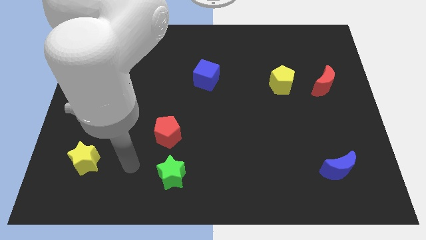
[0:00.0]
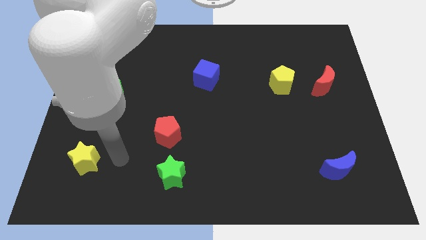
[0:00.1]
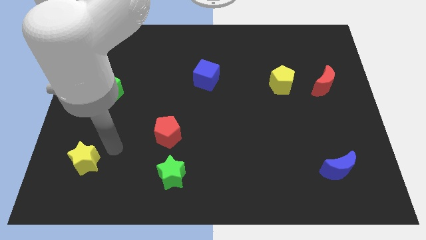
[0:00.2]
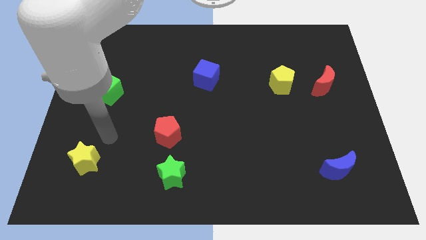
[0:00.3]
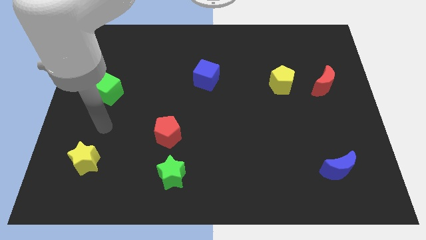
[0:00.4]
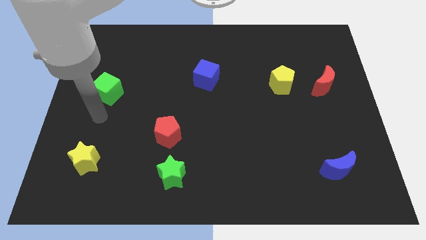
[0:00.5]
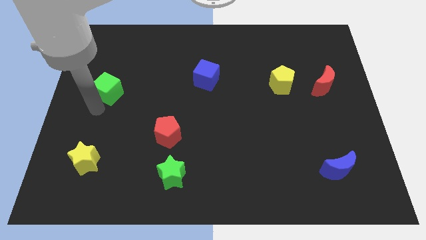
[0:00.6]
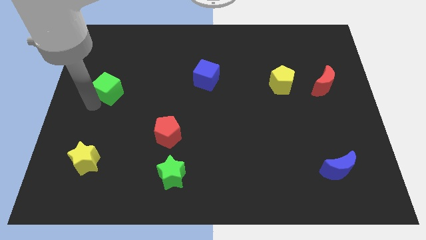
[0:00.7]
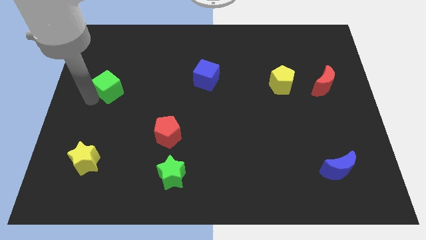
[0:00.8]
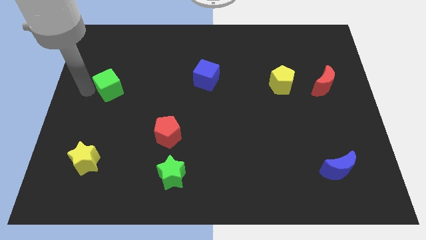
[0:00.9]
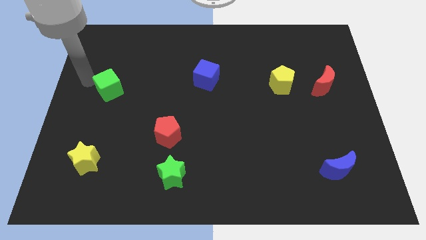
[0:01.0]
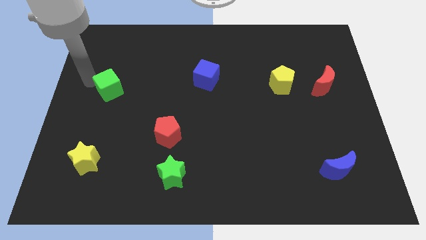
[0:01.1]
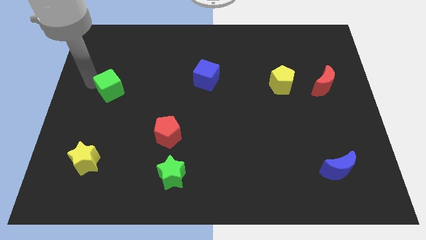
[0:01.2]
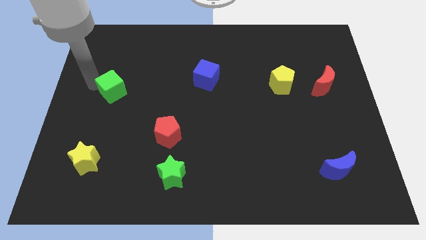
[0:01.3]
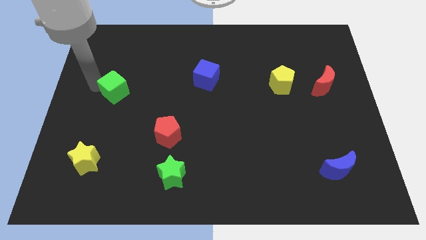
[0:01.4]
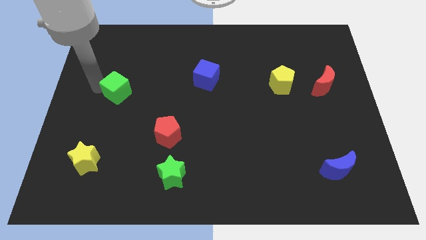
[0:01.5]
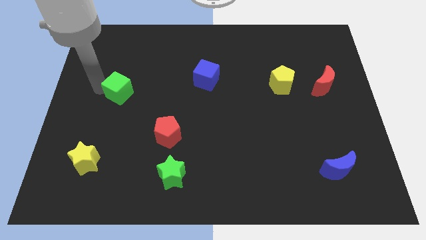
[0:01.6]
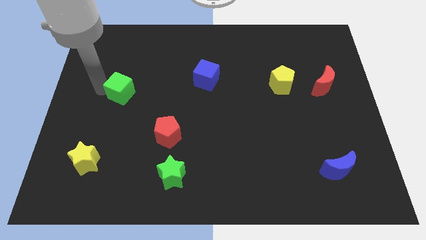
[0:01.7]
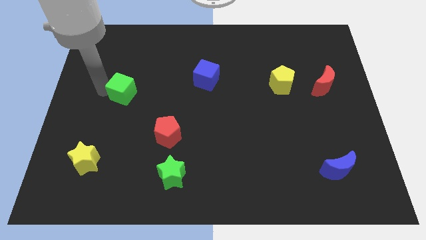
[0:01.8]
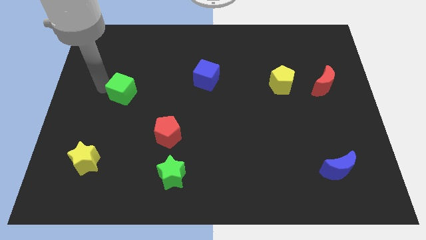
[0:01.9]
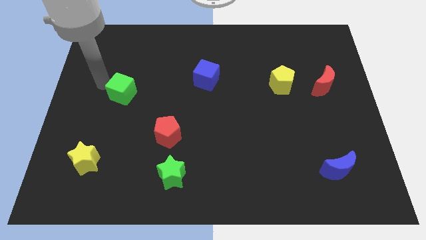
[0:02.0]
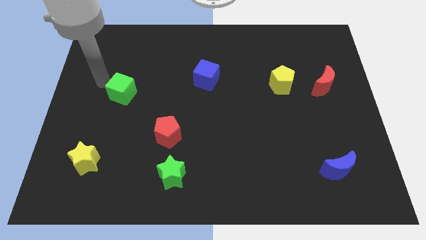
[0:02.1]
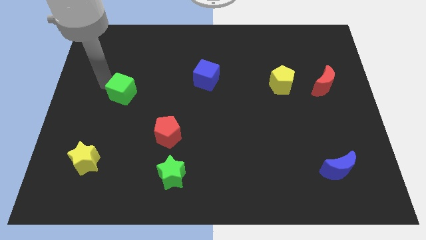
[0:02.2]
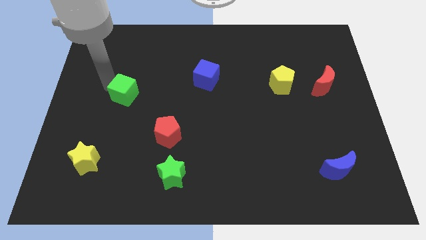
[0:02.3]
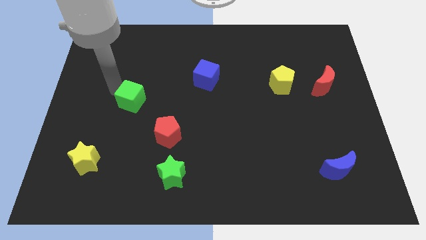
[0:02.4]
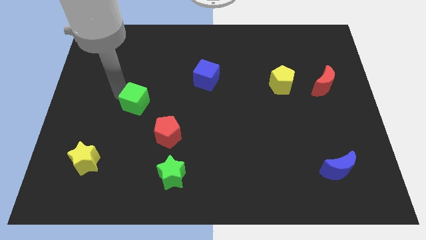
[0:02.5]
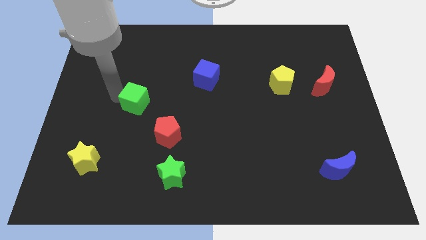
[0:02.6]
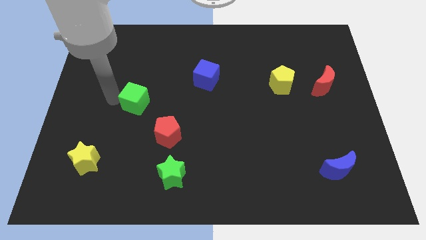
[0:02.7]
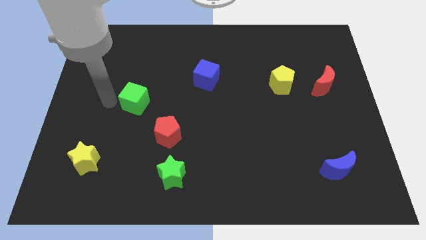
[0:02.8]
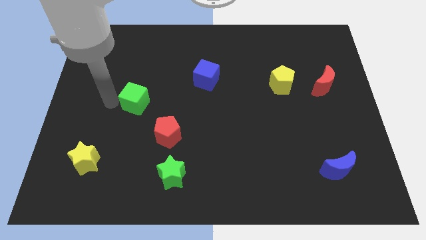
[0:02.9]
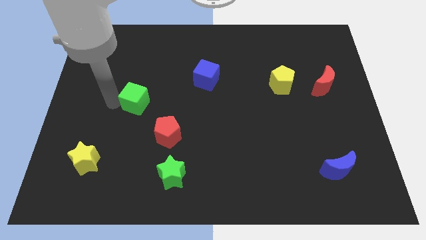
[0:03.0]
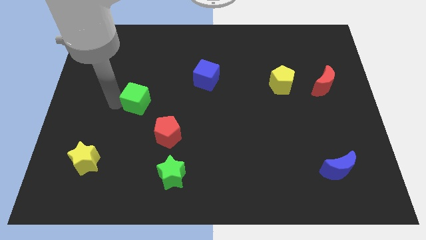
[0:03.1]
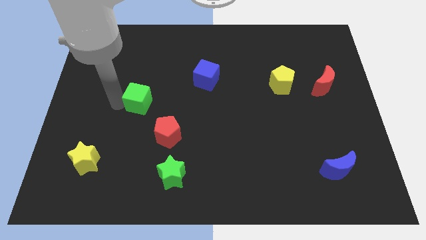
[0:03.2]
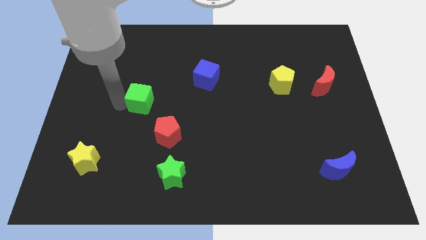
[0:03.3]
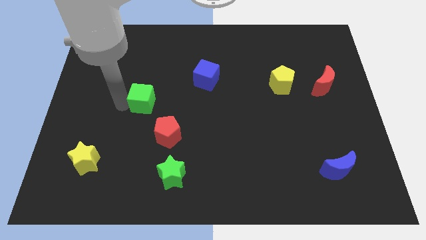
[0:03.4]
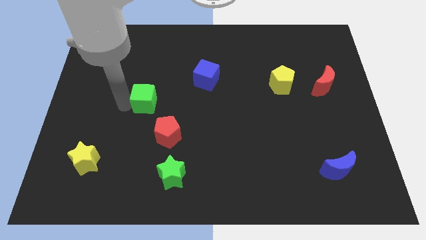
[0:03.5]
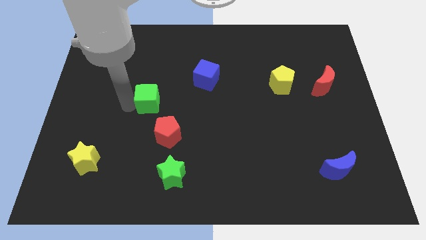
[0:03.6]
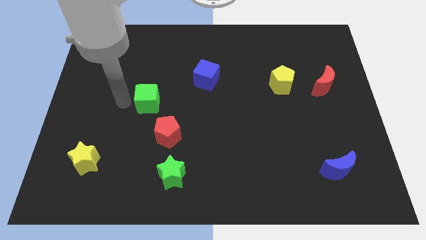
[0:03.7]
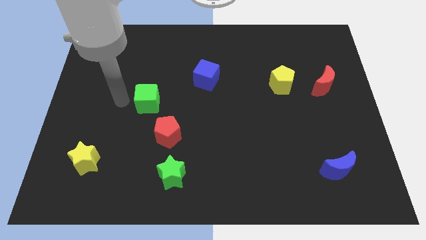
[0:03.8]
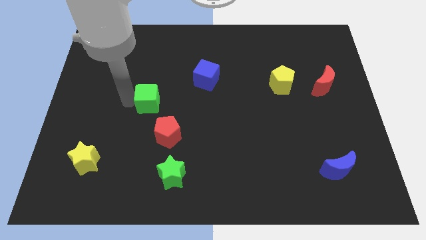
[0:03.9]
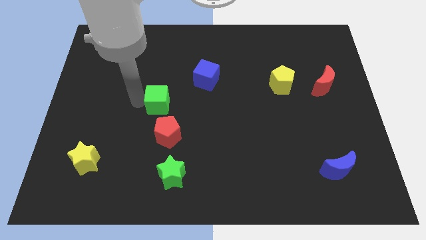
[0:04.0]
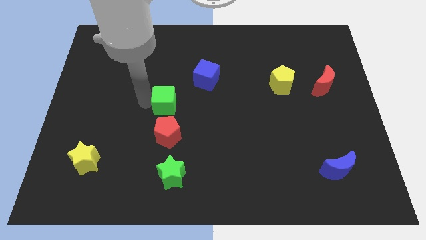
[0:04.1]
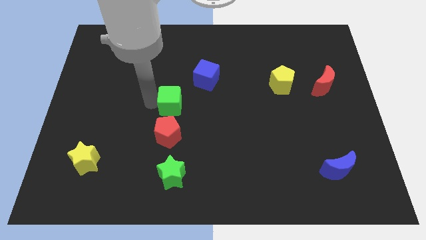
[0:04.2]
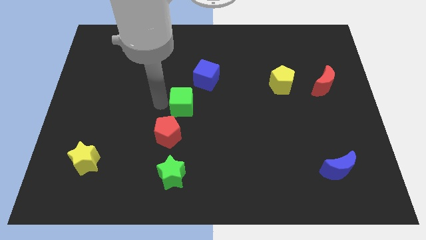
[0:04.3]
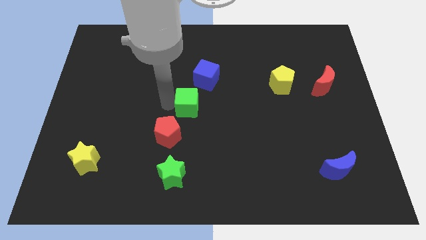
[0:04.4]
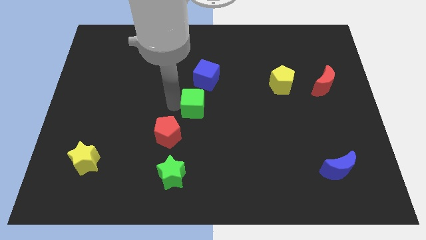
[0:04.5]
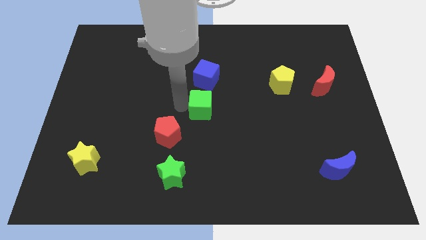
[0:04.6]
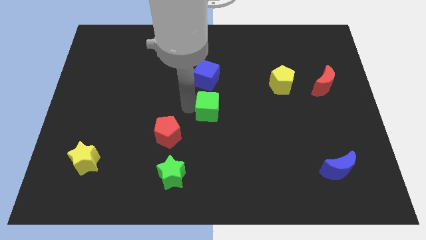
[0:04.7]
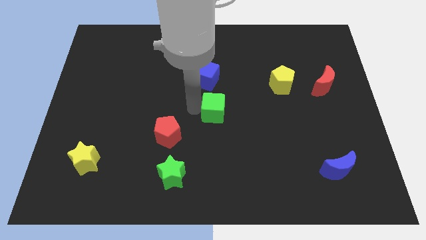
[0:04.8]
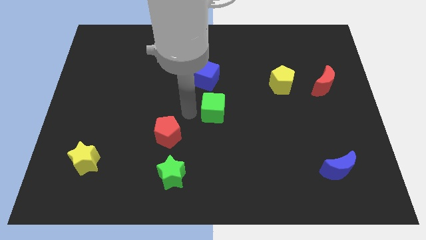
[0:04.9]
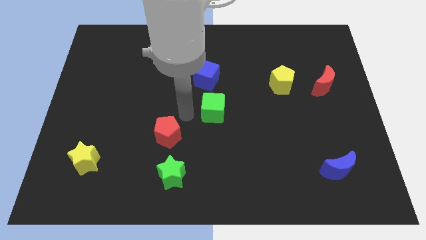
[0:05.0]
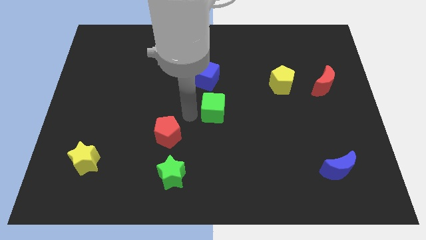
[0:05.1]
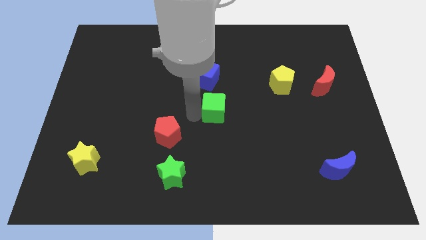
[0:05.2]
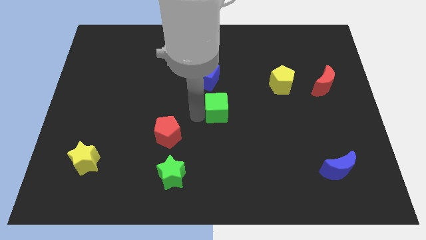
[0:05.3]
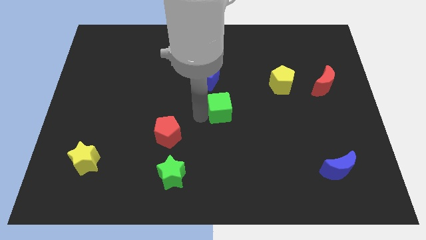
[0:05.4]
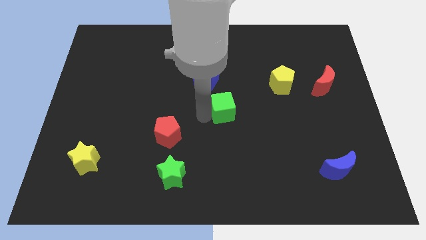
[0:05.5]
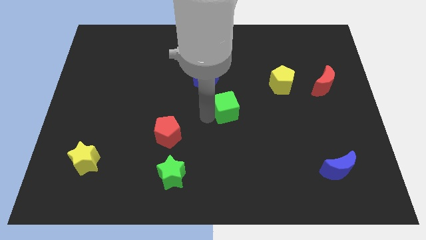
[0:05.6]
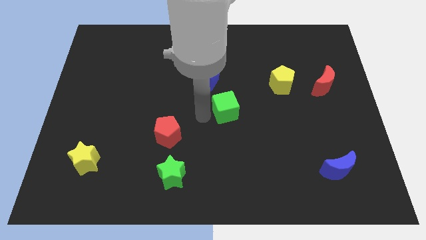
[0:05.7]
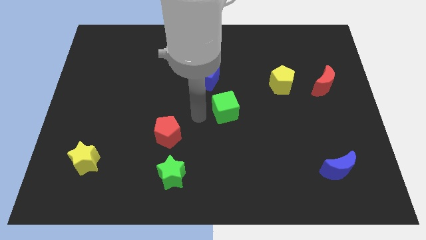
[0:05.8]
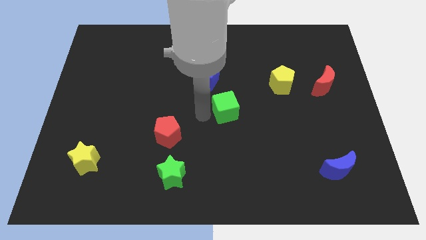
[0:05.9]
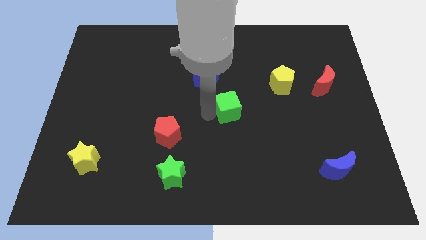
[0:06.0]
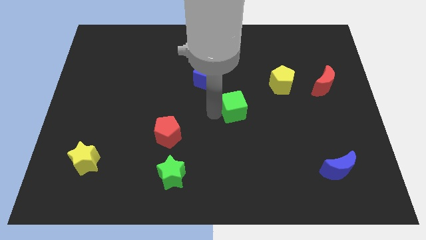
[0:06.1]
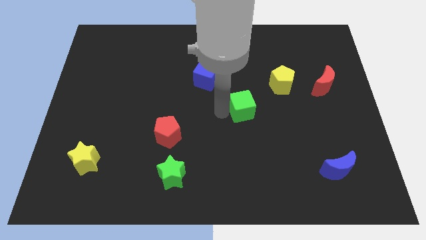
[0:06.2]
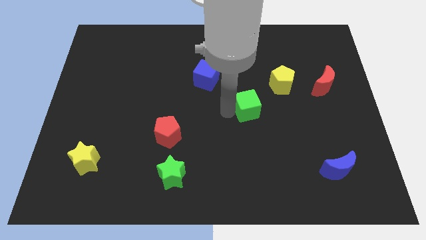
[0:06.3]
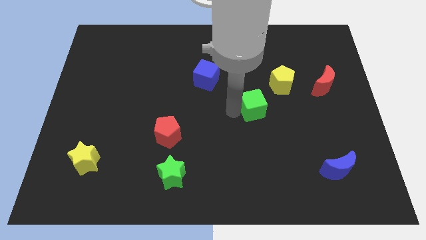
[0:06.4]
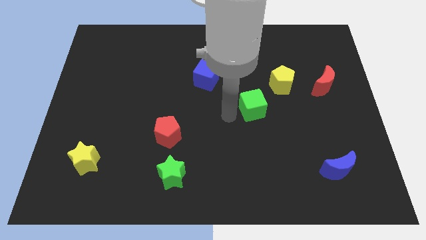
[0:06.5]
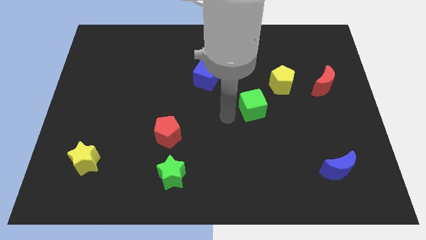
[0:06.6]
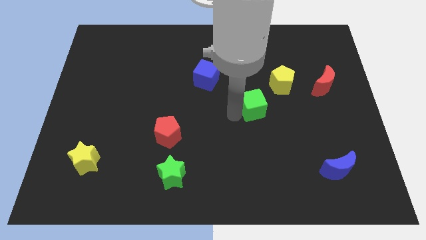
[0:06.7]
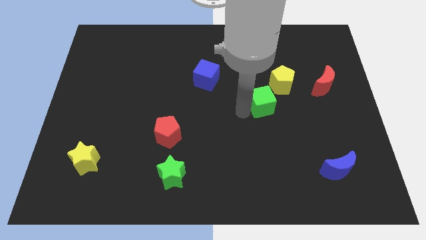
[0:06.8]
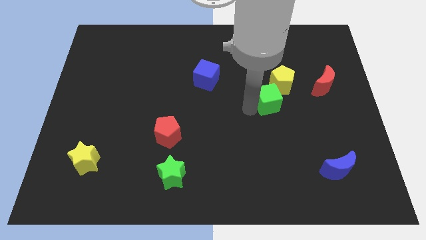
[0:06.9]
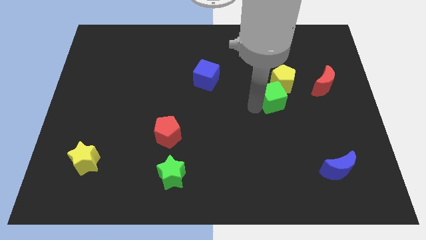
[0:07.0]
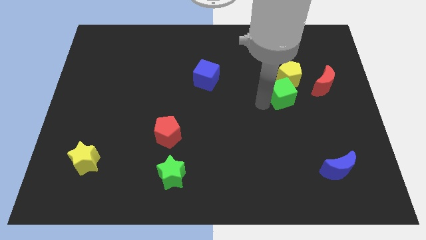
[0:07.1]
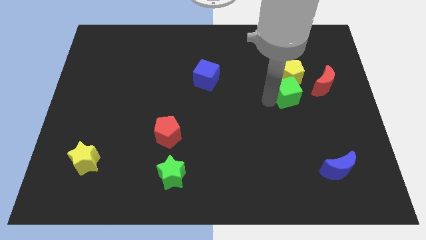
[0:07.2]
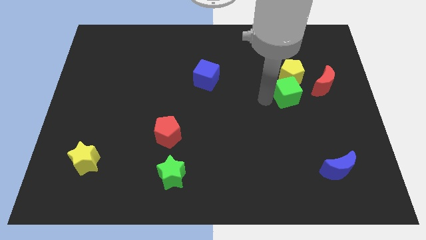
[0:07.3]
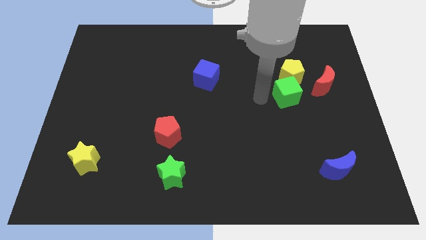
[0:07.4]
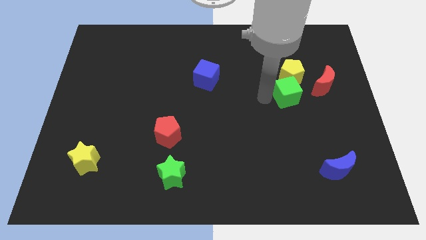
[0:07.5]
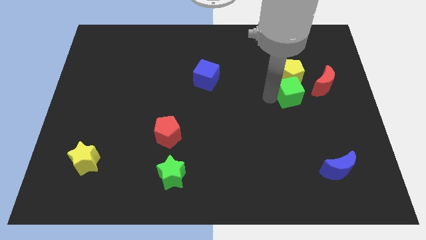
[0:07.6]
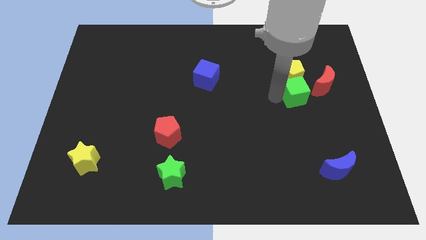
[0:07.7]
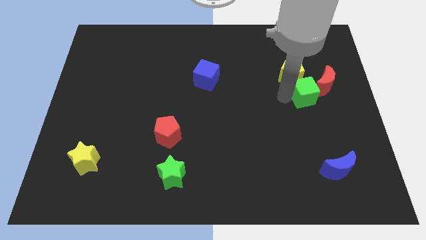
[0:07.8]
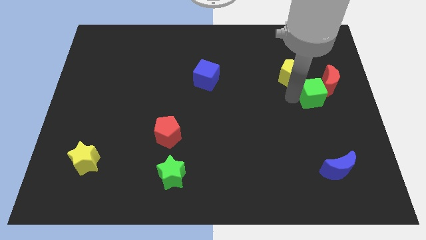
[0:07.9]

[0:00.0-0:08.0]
put the green cube to the red moon
